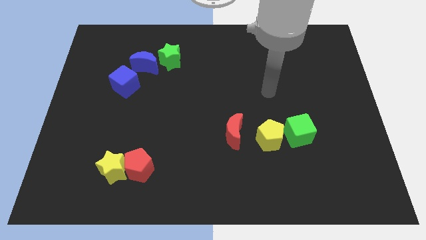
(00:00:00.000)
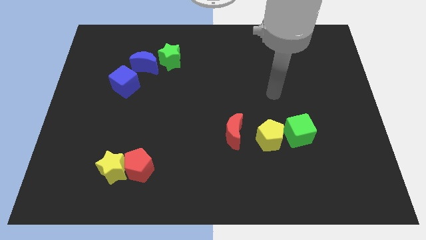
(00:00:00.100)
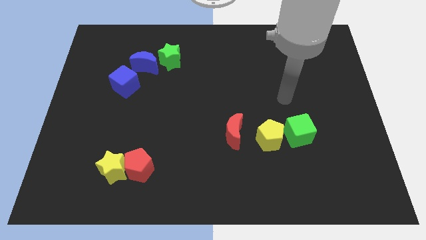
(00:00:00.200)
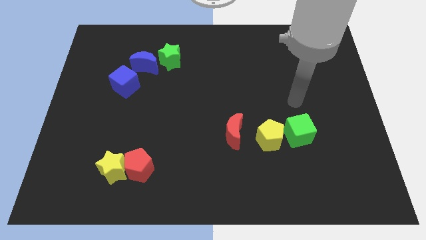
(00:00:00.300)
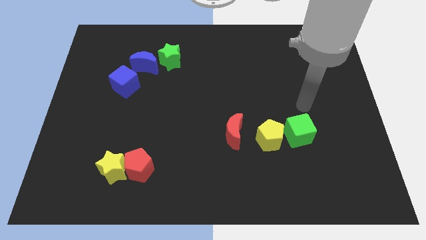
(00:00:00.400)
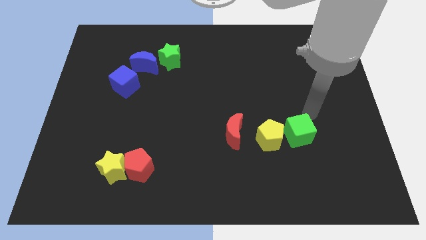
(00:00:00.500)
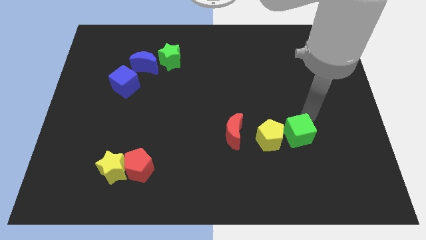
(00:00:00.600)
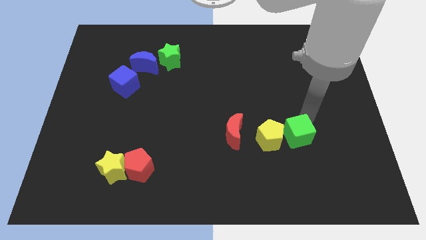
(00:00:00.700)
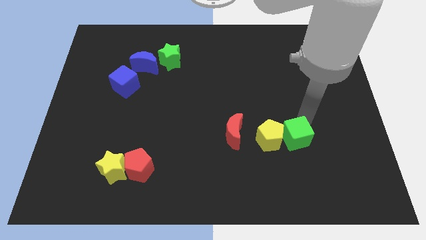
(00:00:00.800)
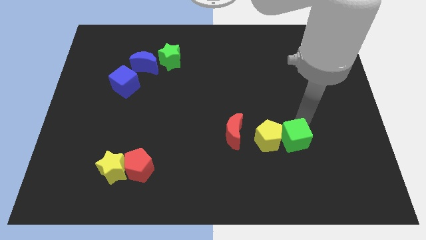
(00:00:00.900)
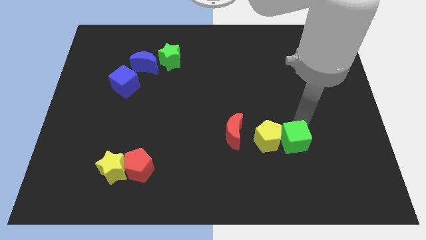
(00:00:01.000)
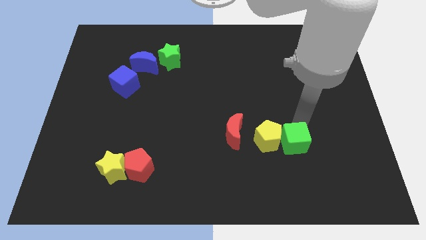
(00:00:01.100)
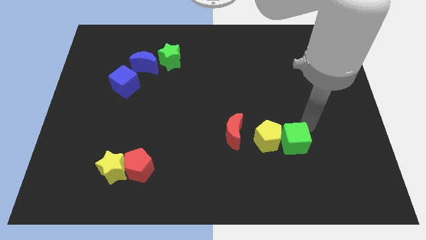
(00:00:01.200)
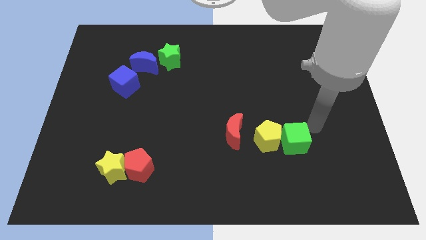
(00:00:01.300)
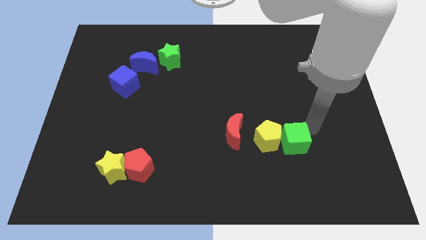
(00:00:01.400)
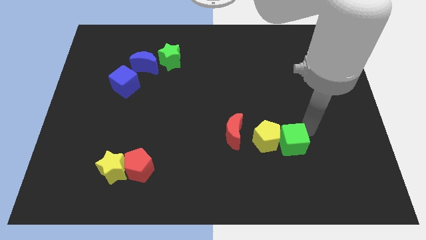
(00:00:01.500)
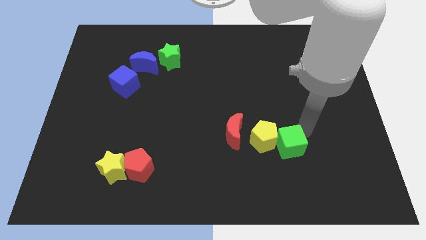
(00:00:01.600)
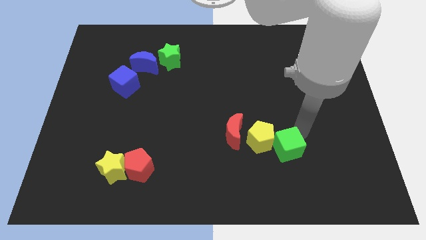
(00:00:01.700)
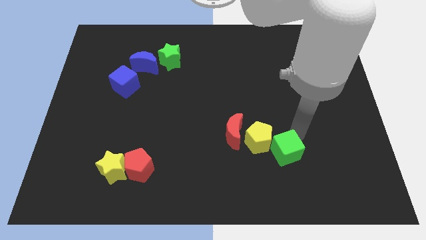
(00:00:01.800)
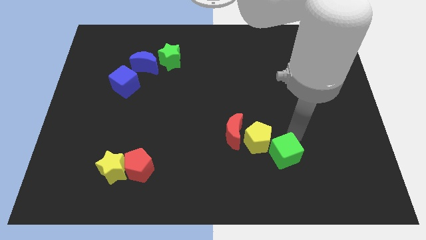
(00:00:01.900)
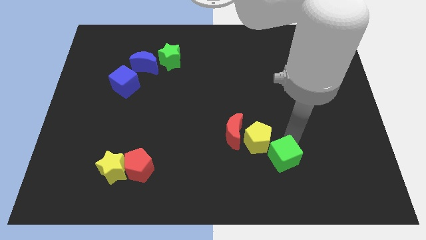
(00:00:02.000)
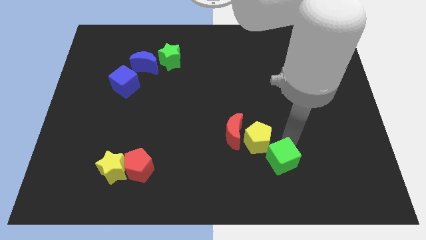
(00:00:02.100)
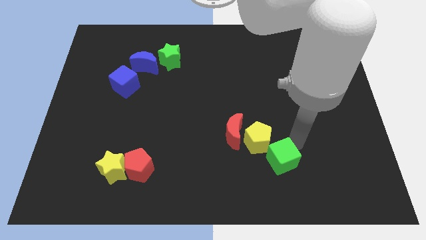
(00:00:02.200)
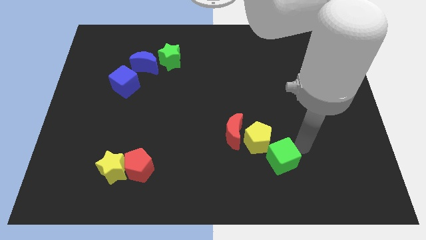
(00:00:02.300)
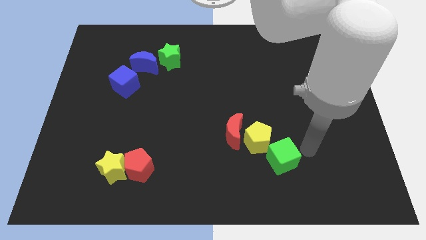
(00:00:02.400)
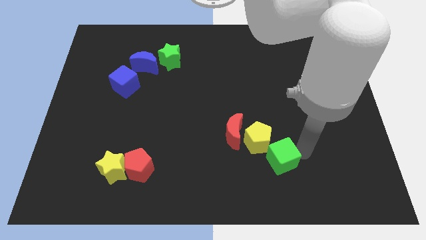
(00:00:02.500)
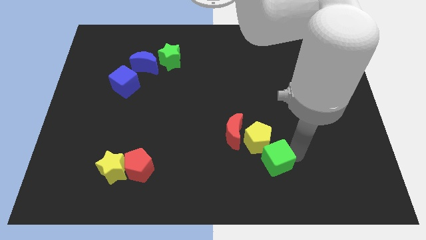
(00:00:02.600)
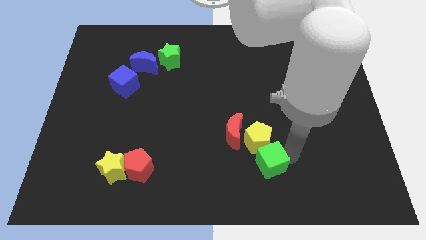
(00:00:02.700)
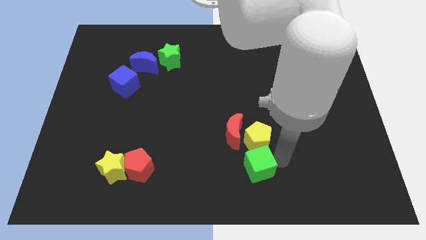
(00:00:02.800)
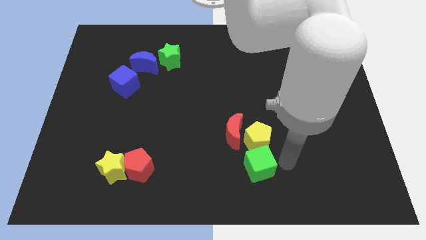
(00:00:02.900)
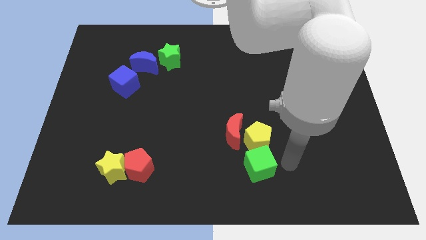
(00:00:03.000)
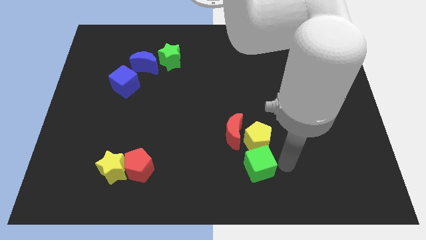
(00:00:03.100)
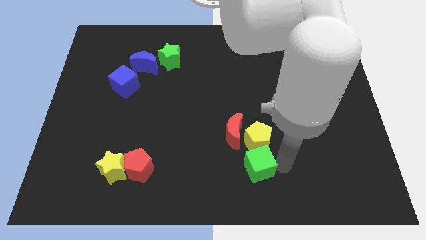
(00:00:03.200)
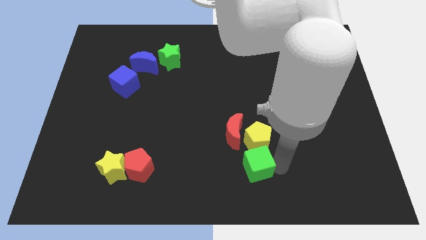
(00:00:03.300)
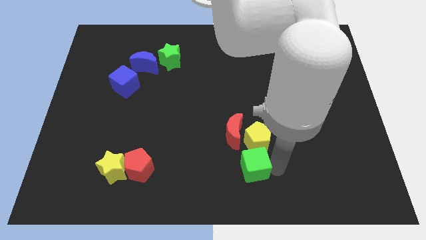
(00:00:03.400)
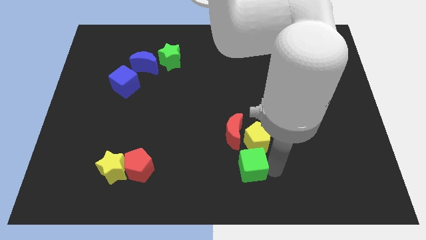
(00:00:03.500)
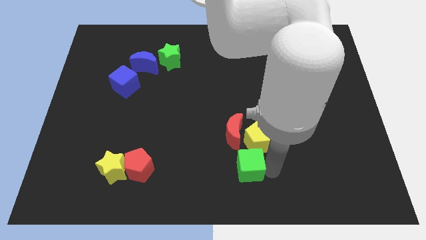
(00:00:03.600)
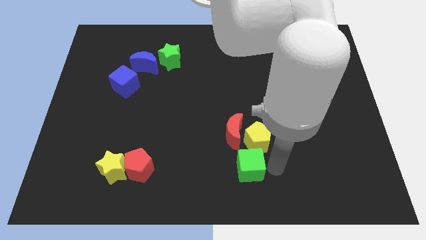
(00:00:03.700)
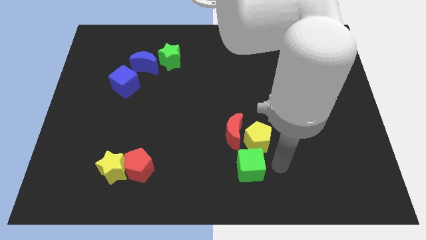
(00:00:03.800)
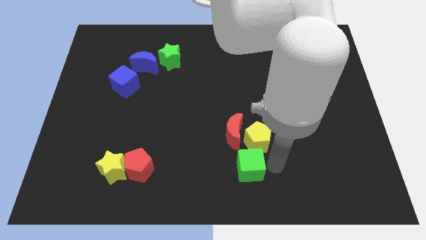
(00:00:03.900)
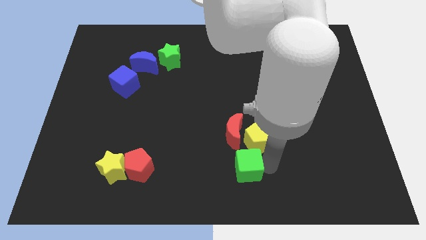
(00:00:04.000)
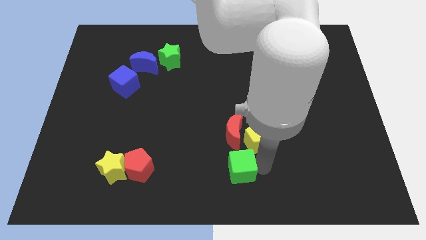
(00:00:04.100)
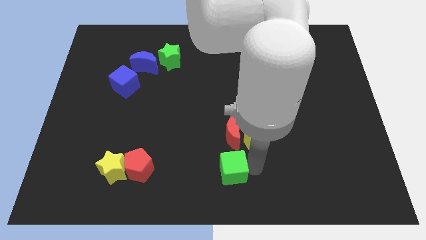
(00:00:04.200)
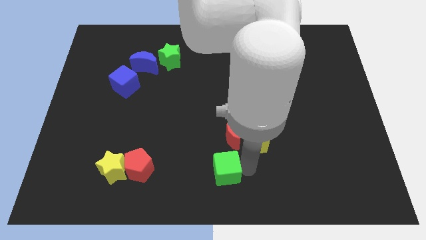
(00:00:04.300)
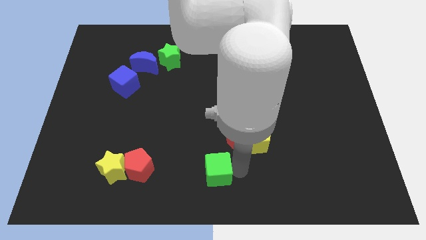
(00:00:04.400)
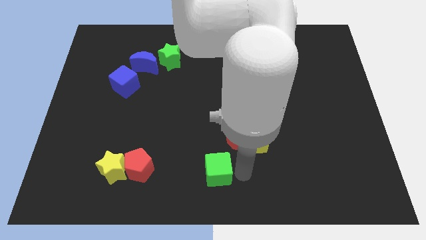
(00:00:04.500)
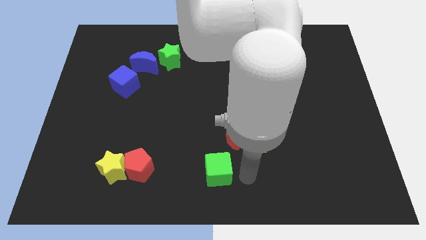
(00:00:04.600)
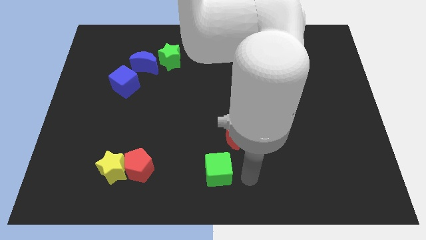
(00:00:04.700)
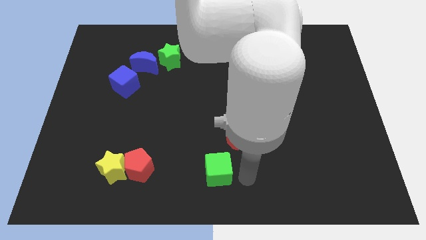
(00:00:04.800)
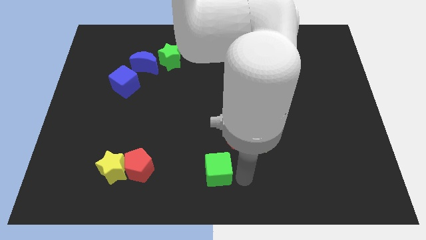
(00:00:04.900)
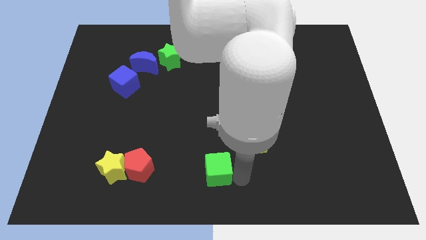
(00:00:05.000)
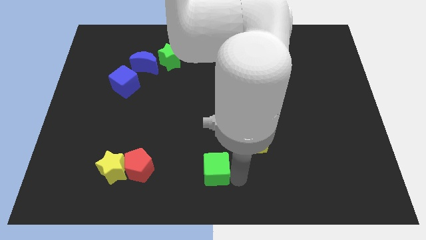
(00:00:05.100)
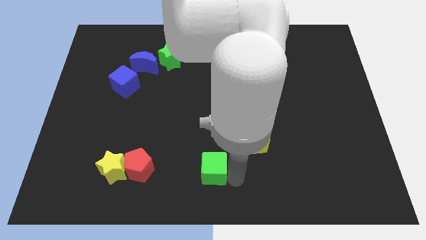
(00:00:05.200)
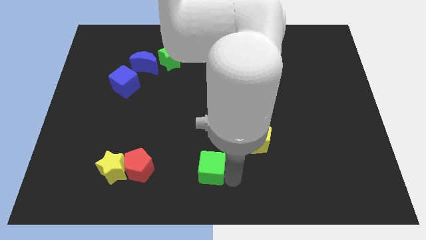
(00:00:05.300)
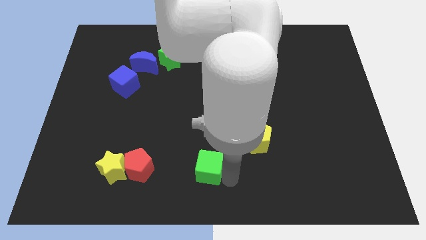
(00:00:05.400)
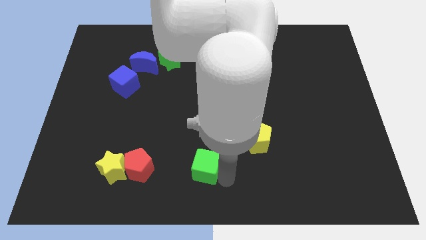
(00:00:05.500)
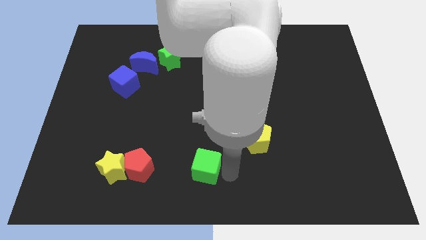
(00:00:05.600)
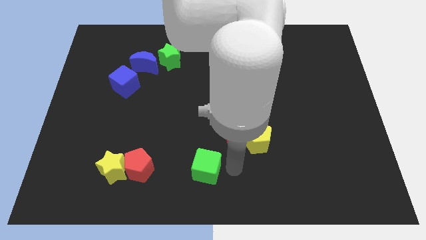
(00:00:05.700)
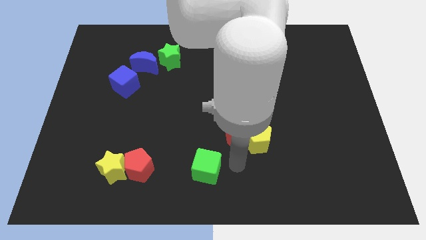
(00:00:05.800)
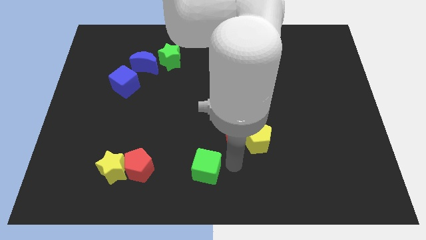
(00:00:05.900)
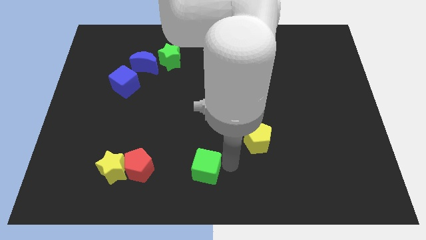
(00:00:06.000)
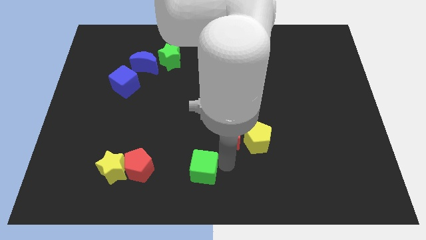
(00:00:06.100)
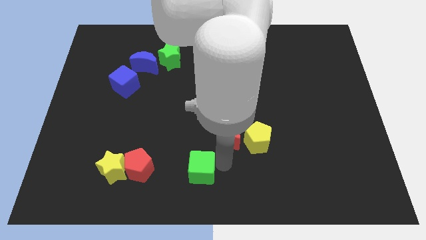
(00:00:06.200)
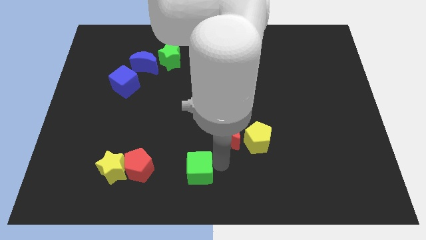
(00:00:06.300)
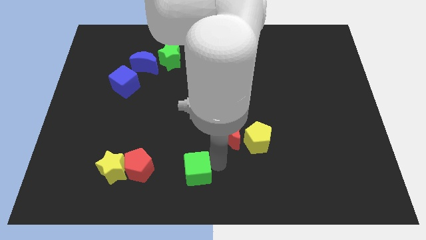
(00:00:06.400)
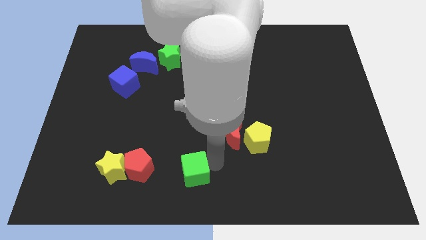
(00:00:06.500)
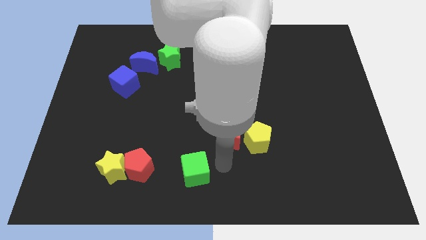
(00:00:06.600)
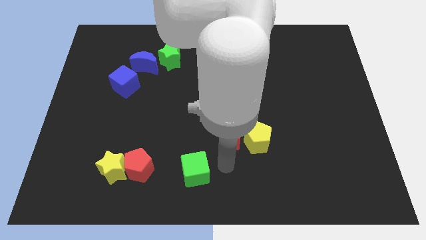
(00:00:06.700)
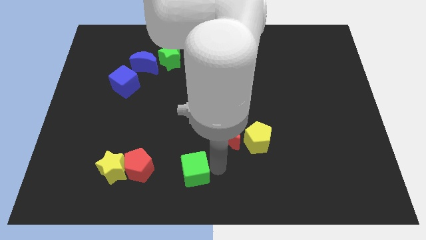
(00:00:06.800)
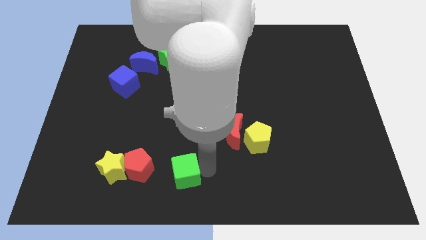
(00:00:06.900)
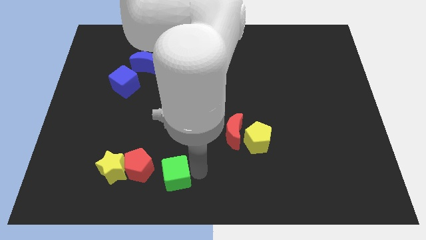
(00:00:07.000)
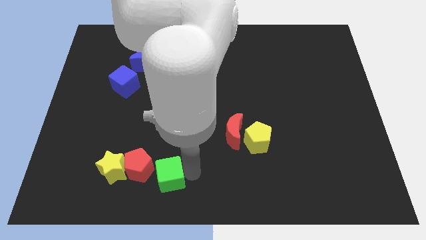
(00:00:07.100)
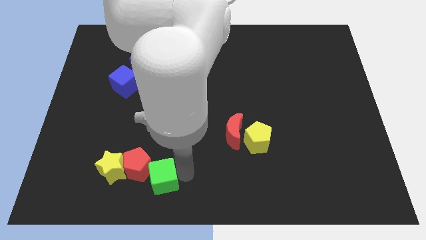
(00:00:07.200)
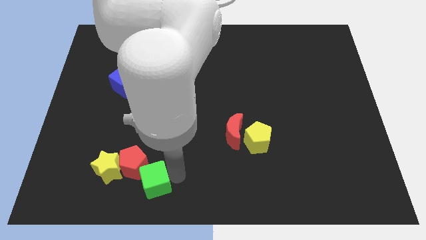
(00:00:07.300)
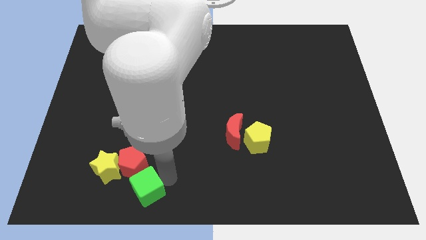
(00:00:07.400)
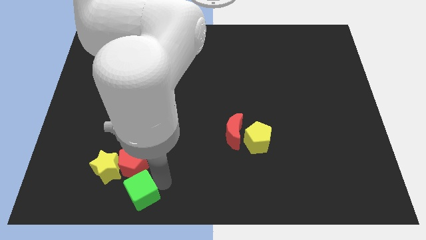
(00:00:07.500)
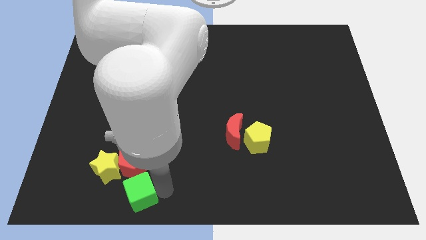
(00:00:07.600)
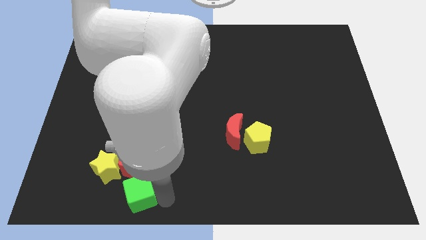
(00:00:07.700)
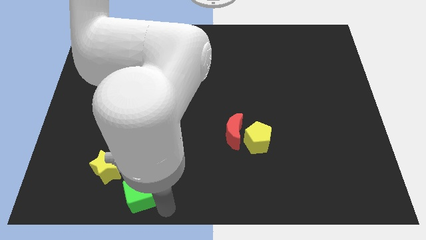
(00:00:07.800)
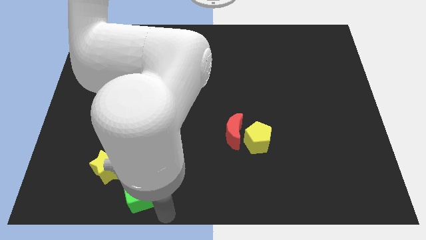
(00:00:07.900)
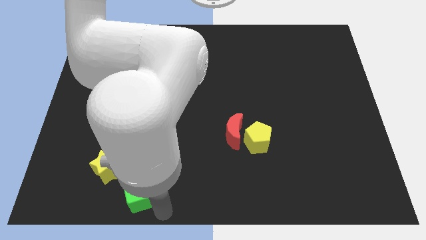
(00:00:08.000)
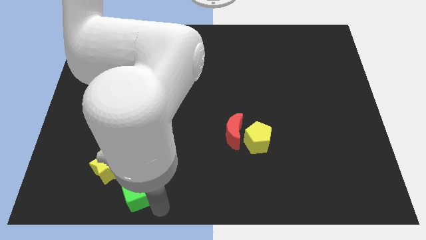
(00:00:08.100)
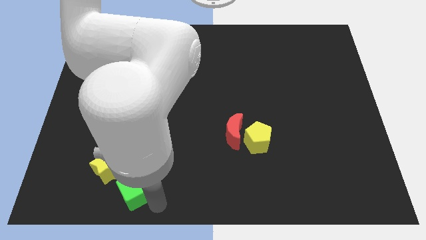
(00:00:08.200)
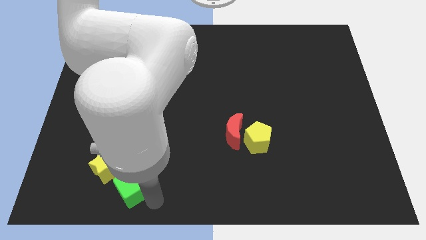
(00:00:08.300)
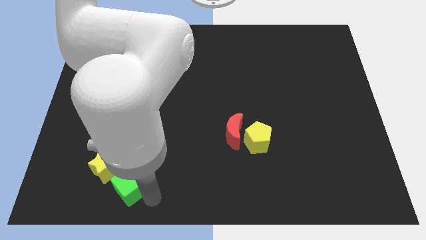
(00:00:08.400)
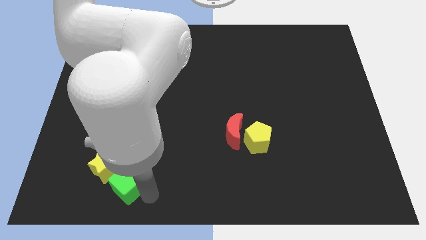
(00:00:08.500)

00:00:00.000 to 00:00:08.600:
put the green cube towards the yellow star
